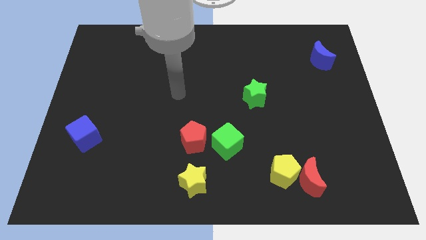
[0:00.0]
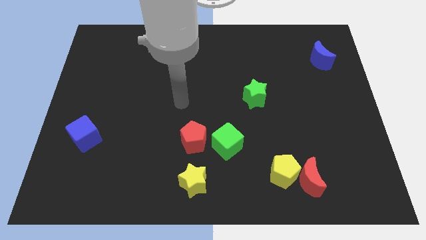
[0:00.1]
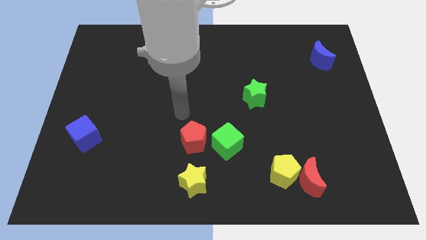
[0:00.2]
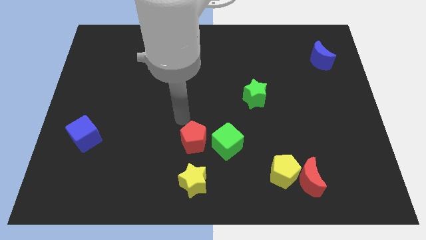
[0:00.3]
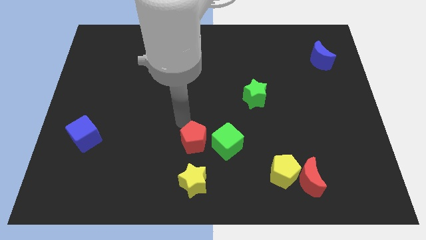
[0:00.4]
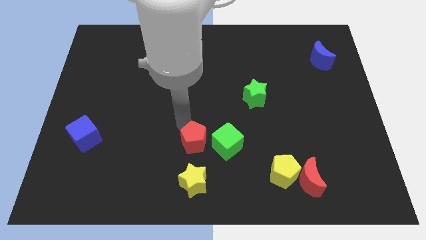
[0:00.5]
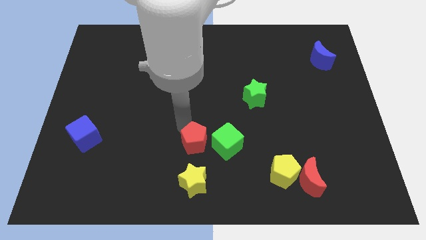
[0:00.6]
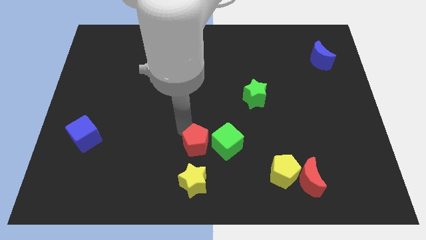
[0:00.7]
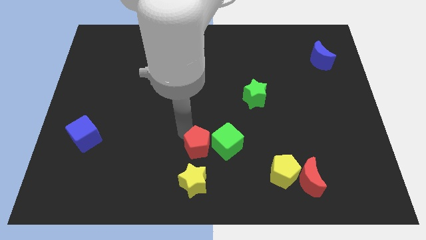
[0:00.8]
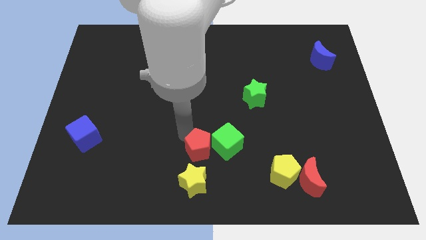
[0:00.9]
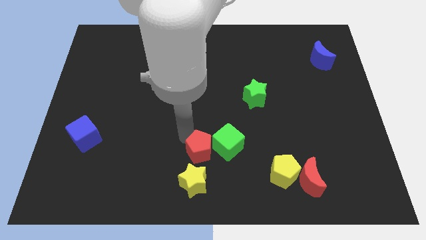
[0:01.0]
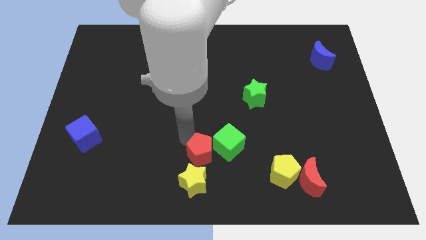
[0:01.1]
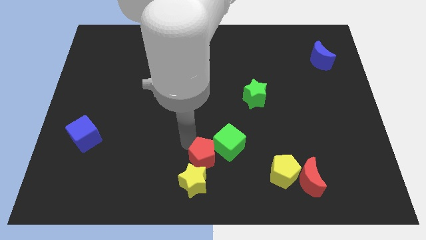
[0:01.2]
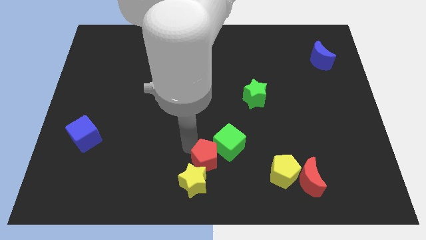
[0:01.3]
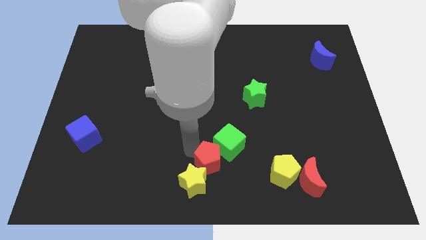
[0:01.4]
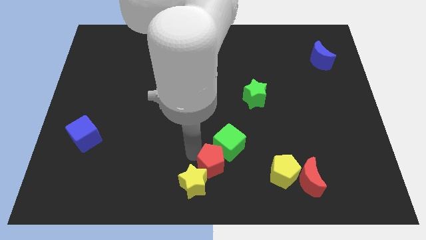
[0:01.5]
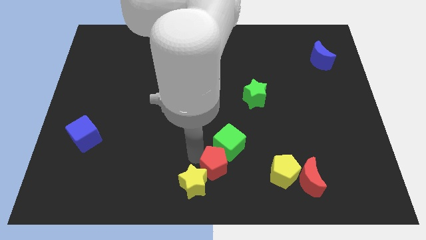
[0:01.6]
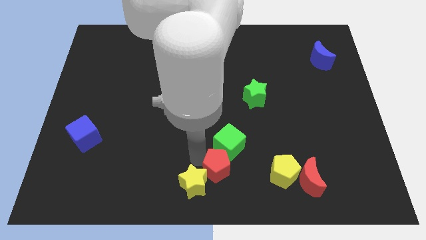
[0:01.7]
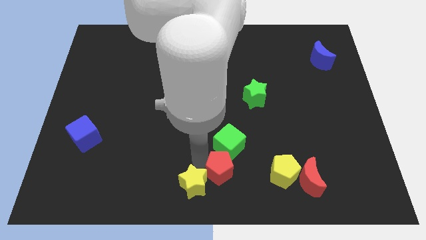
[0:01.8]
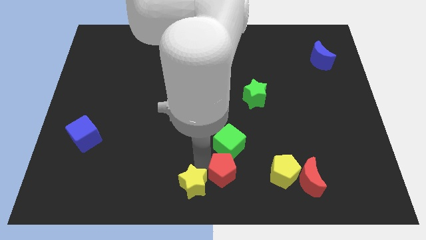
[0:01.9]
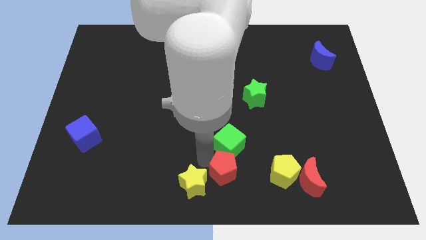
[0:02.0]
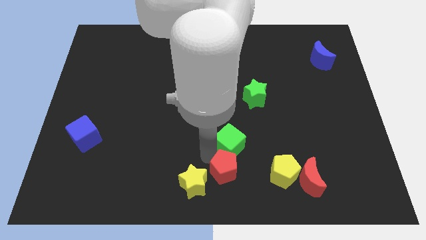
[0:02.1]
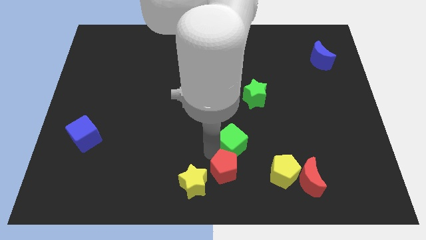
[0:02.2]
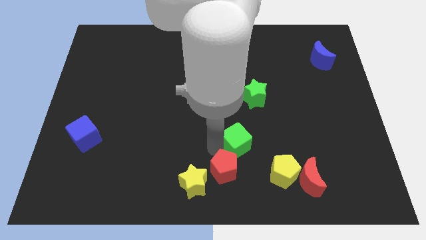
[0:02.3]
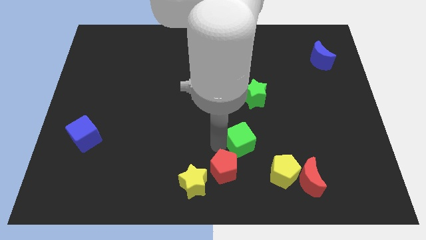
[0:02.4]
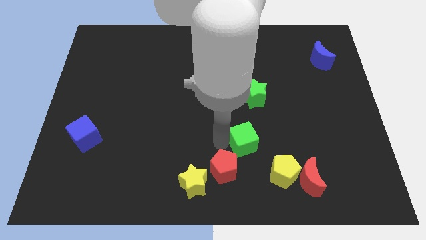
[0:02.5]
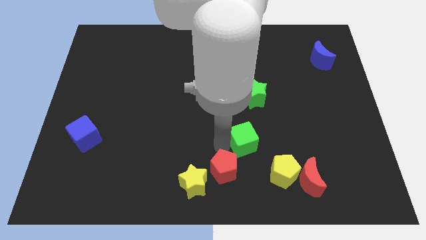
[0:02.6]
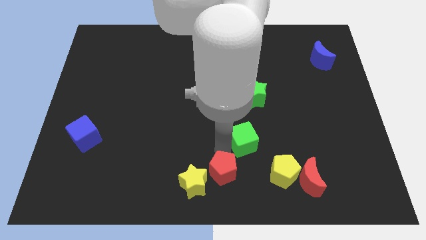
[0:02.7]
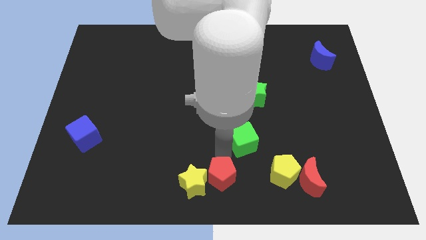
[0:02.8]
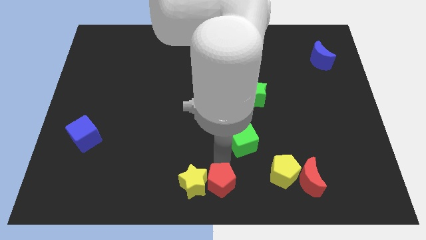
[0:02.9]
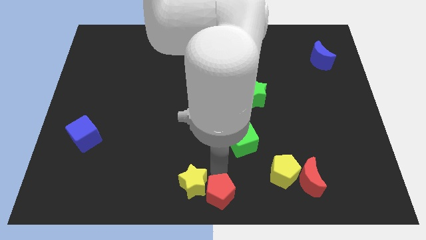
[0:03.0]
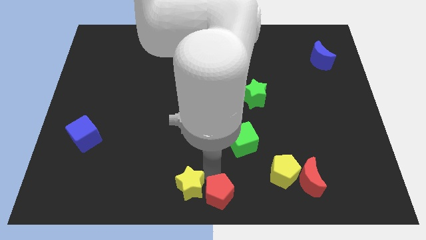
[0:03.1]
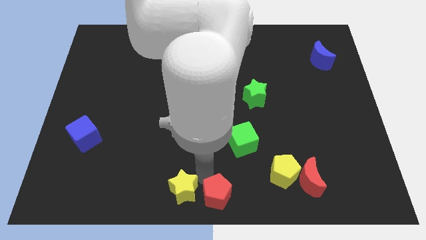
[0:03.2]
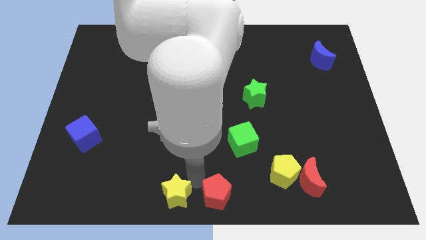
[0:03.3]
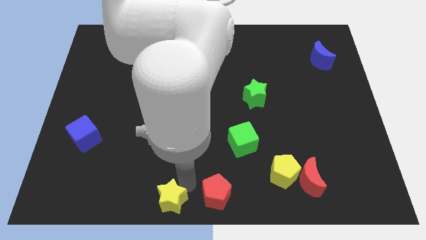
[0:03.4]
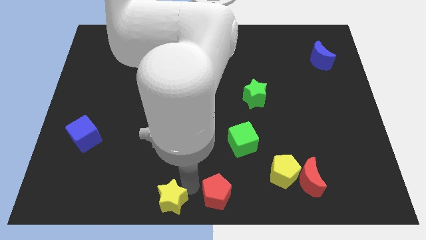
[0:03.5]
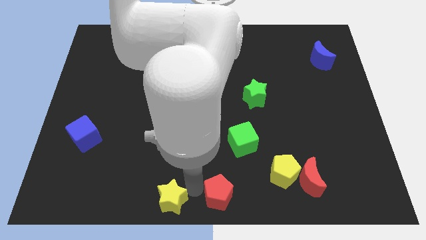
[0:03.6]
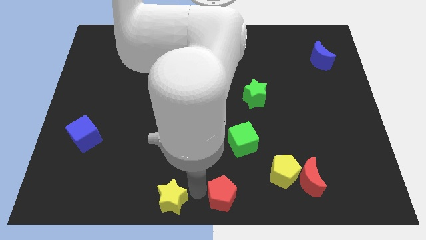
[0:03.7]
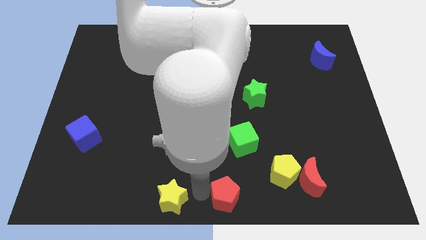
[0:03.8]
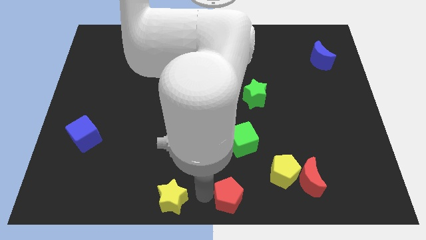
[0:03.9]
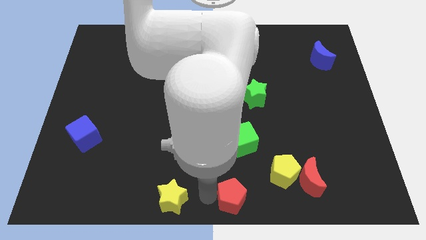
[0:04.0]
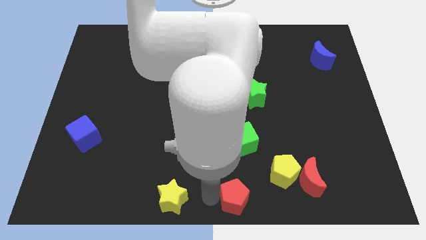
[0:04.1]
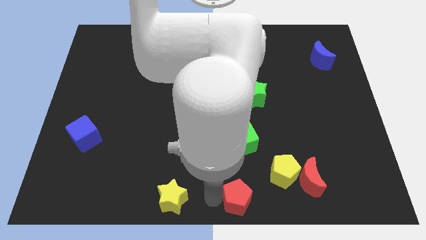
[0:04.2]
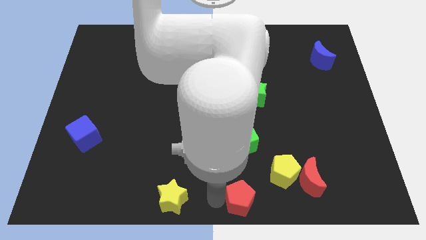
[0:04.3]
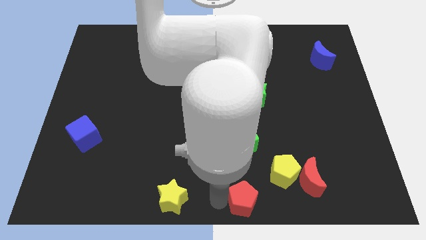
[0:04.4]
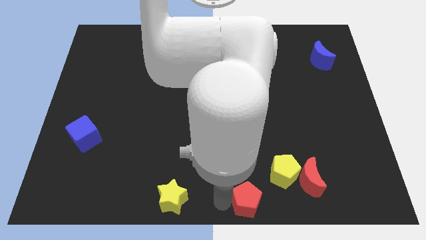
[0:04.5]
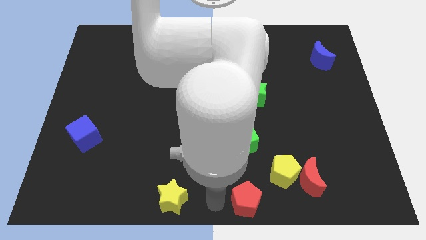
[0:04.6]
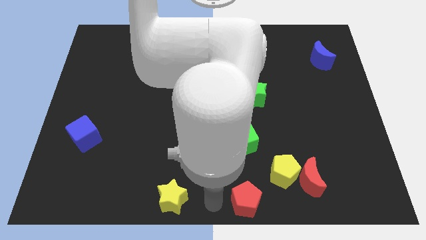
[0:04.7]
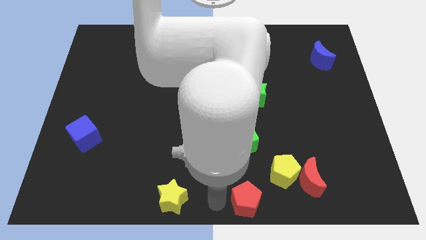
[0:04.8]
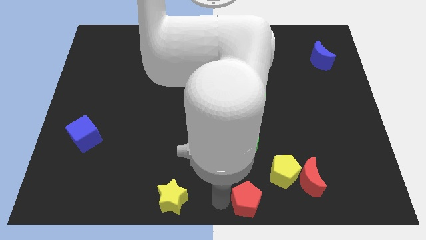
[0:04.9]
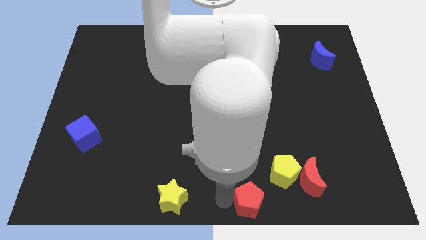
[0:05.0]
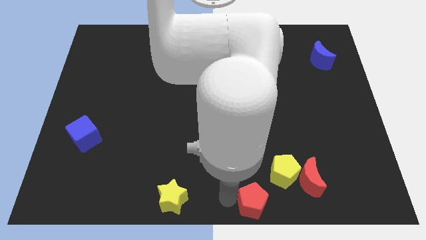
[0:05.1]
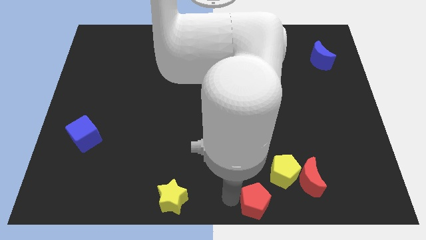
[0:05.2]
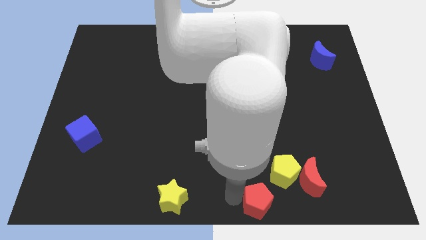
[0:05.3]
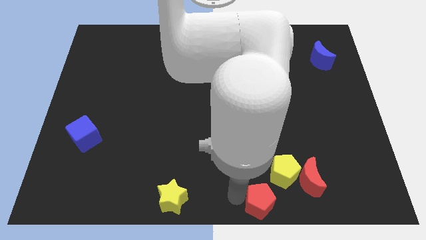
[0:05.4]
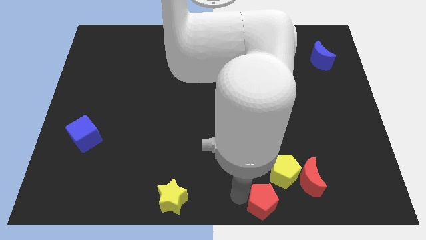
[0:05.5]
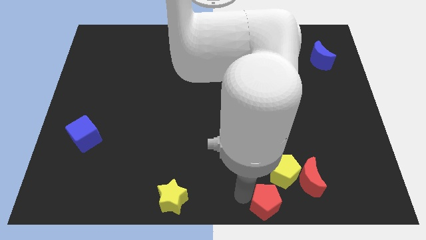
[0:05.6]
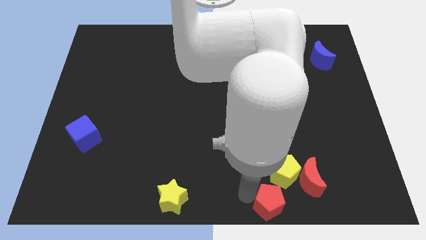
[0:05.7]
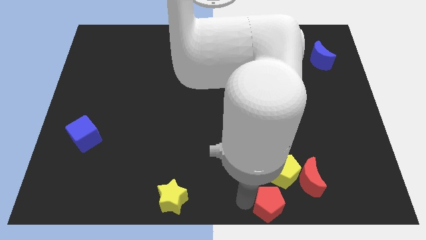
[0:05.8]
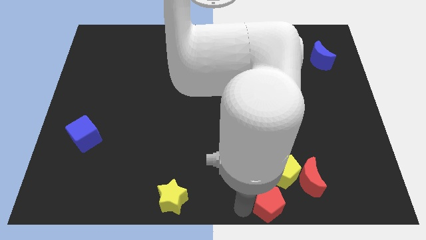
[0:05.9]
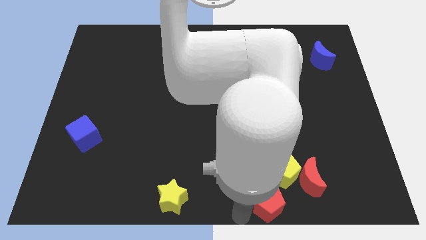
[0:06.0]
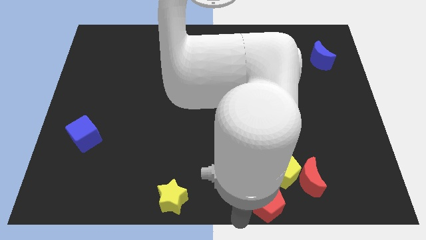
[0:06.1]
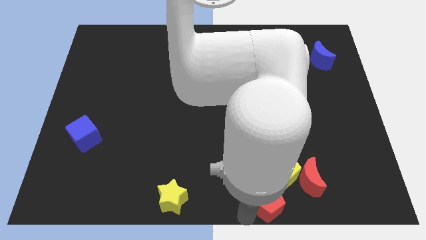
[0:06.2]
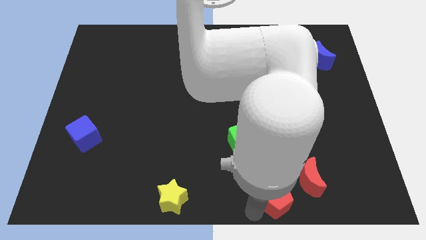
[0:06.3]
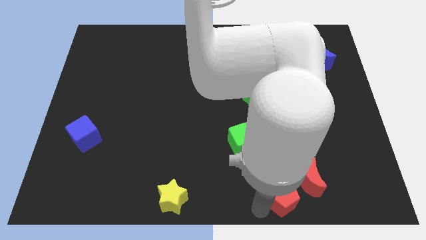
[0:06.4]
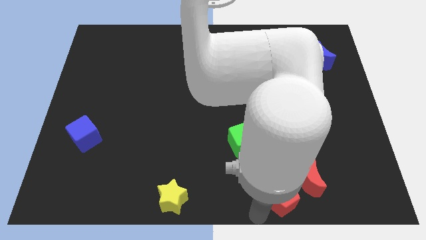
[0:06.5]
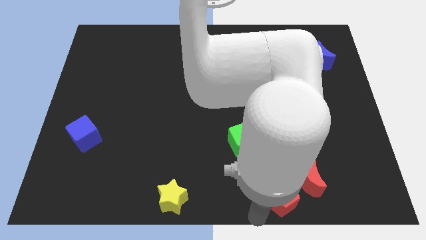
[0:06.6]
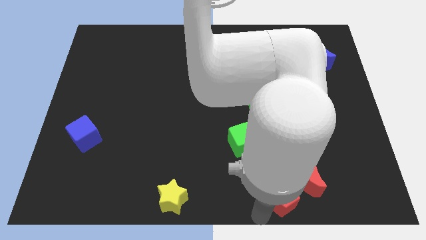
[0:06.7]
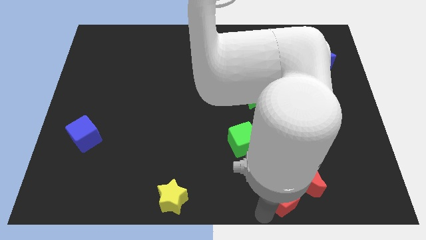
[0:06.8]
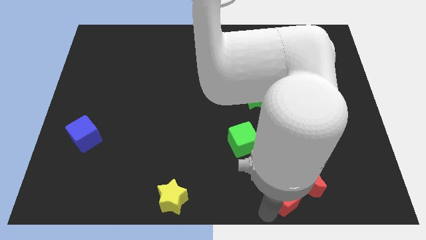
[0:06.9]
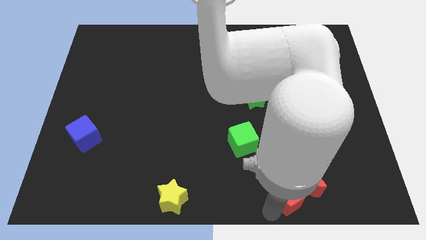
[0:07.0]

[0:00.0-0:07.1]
slide the red pentagon next to the red moon
